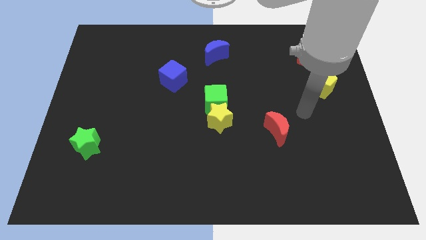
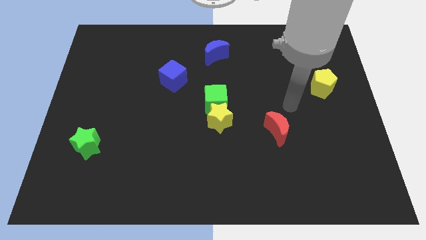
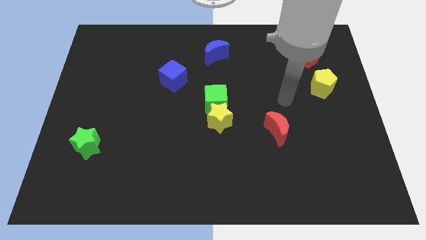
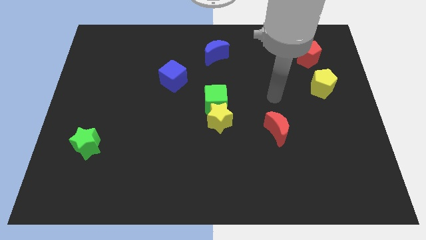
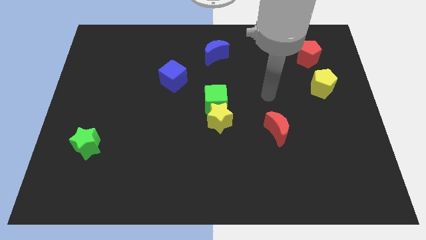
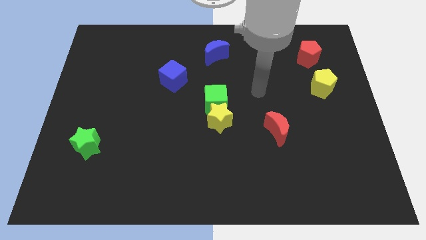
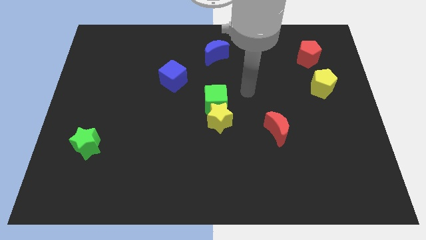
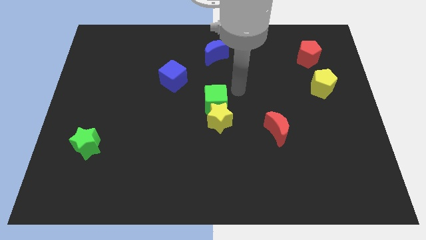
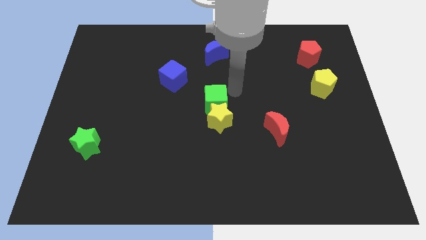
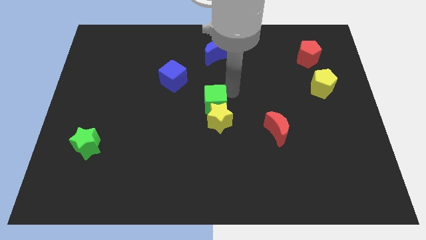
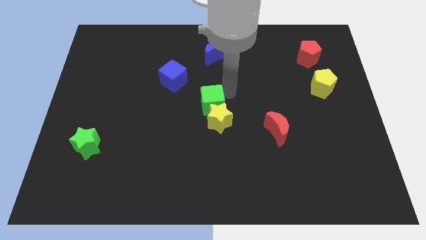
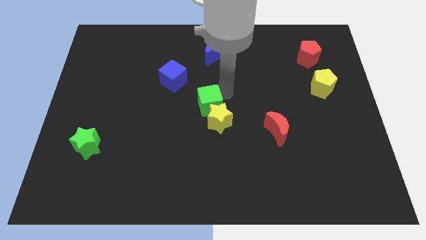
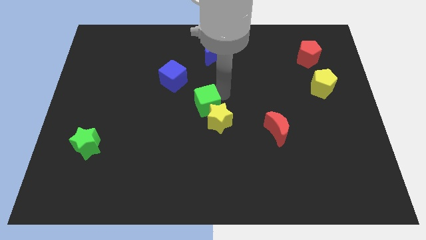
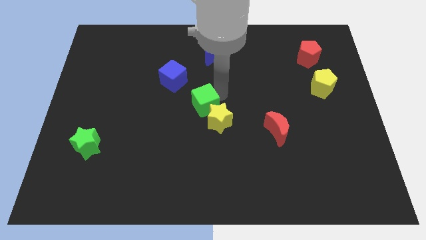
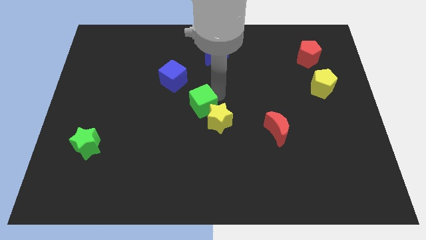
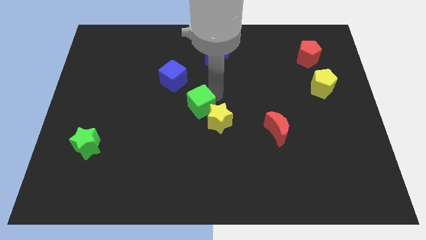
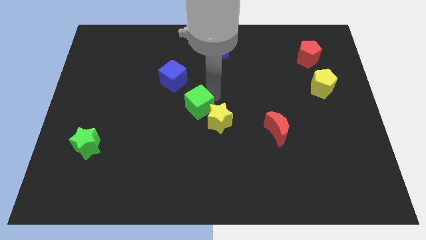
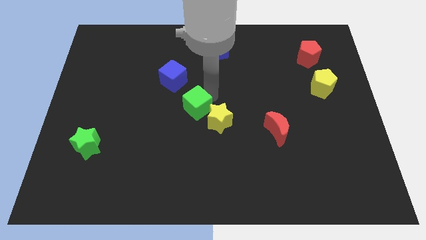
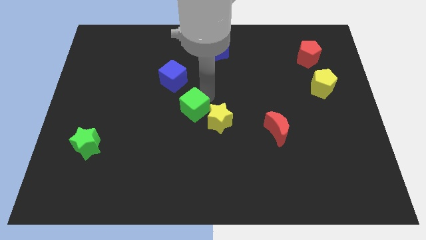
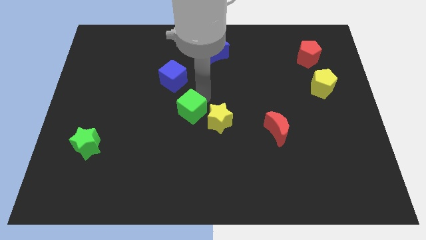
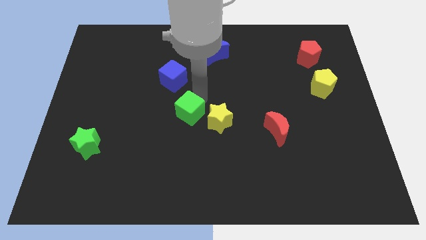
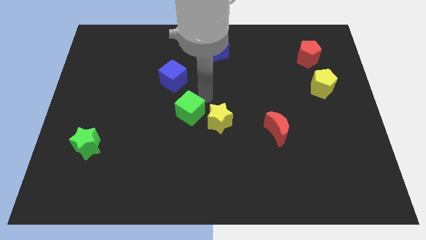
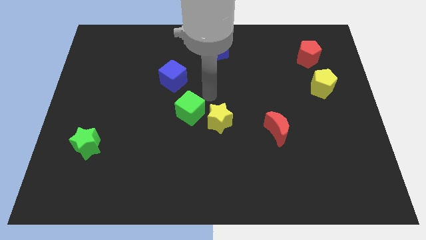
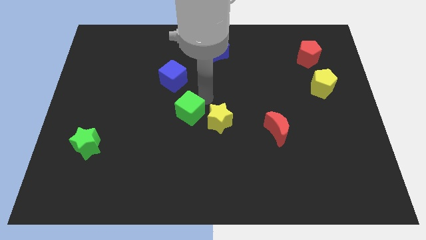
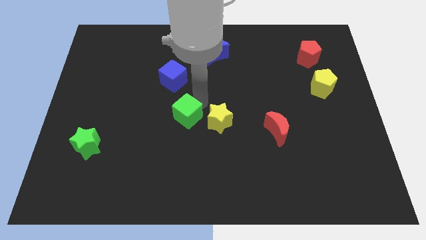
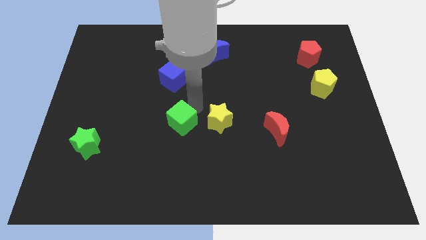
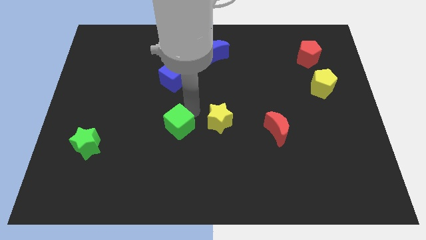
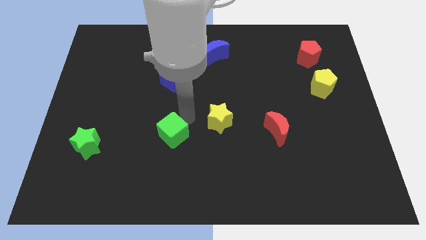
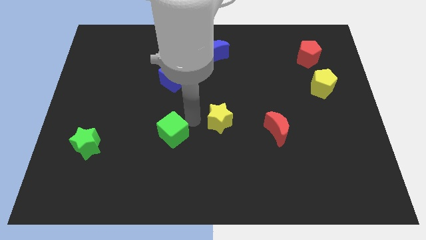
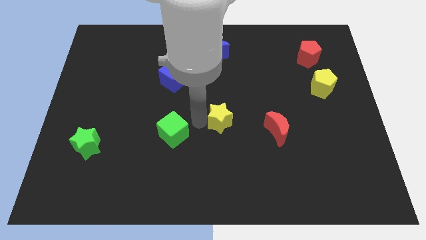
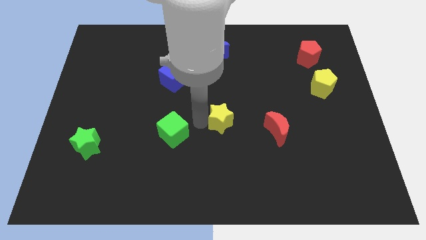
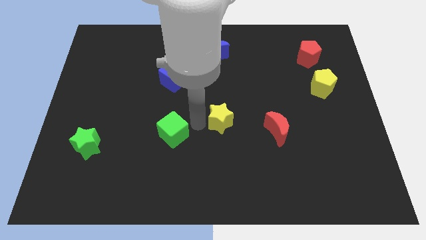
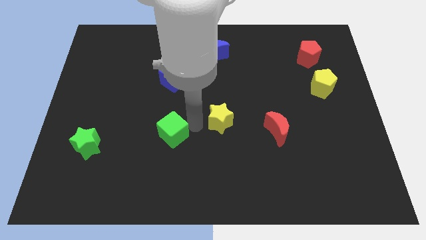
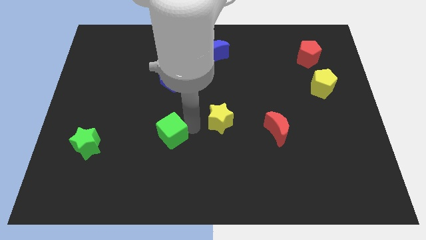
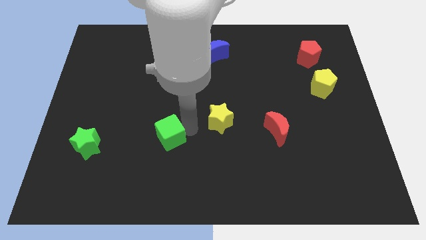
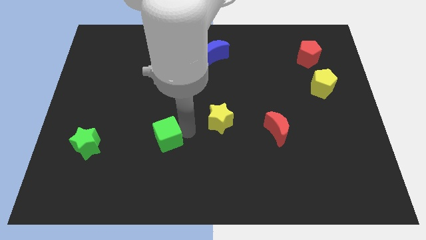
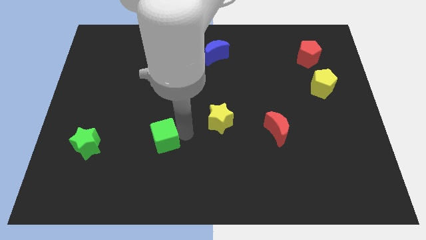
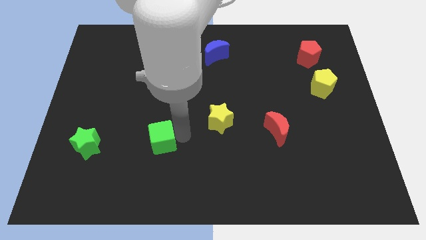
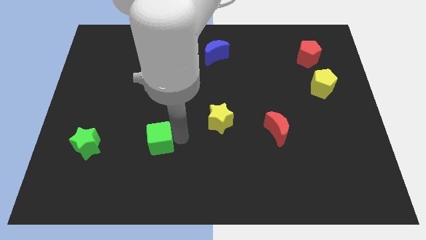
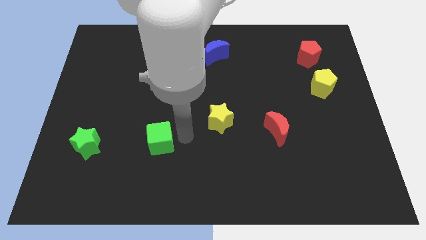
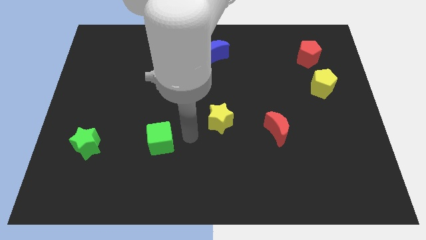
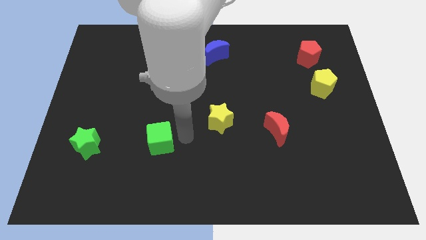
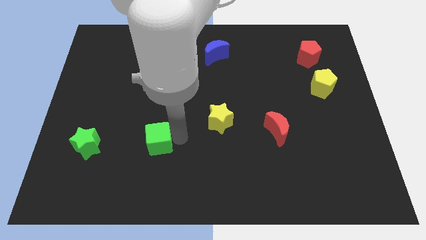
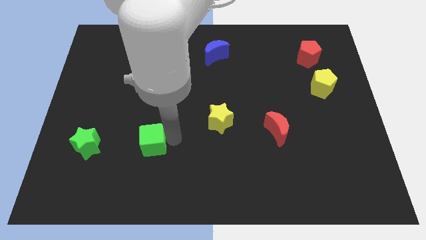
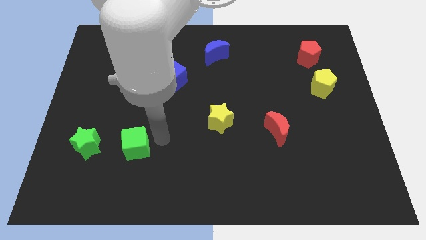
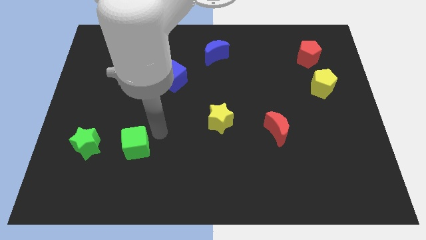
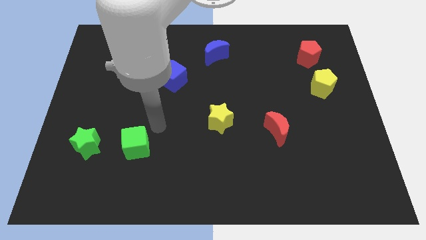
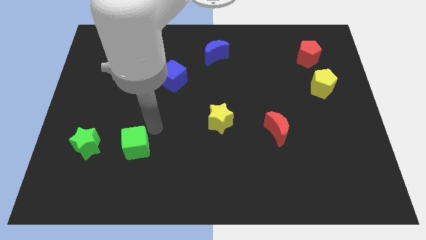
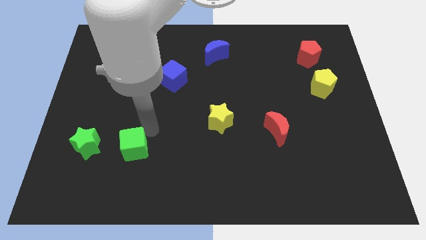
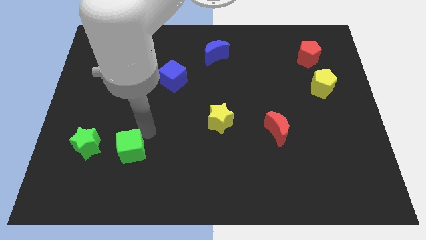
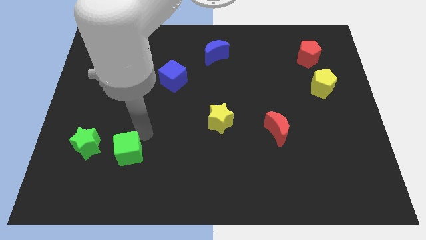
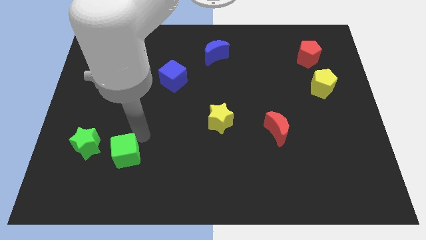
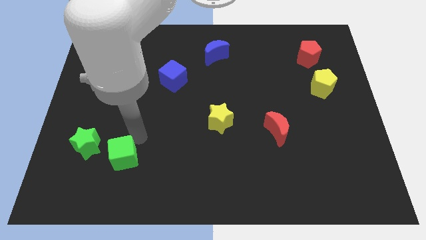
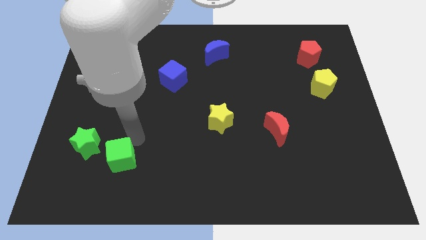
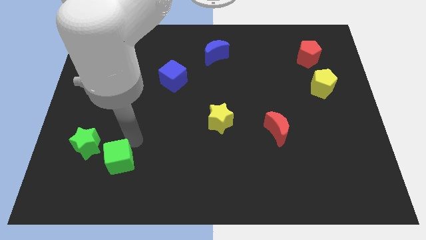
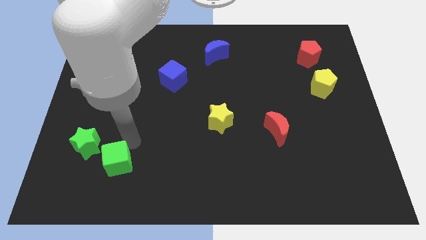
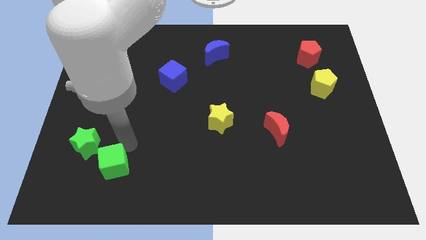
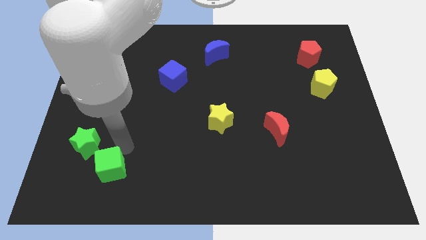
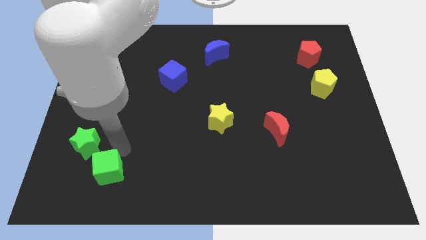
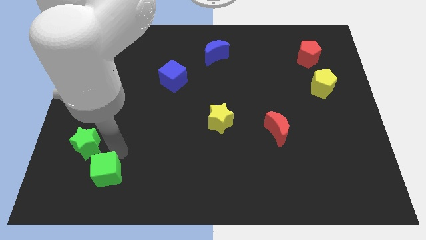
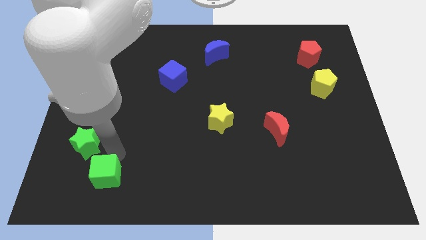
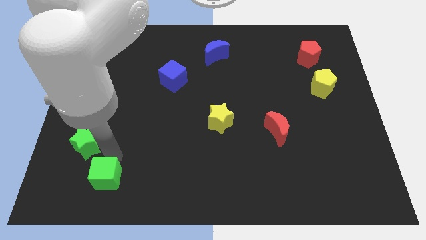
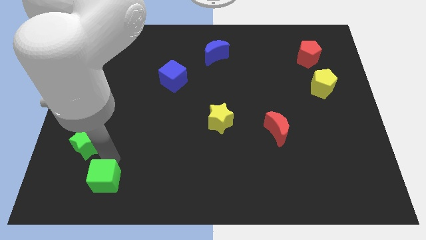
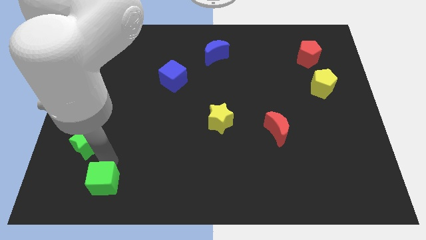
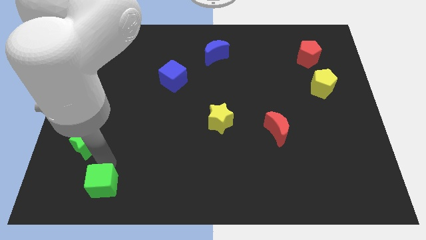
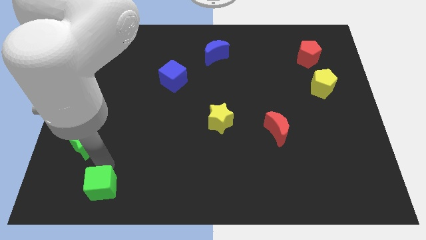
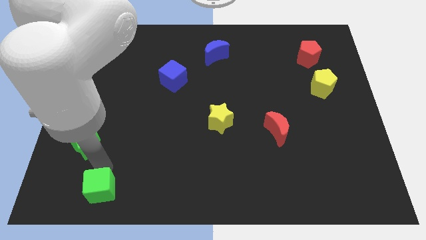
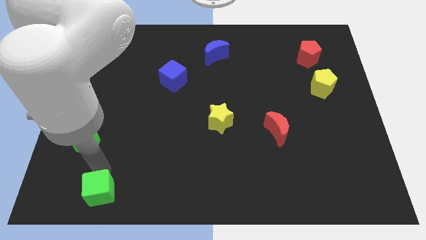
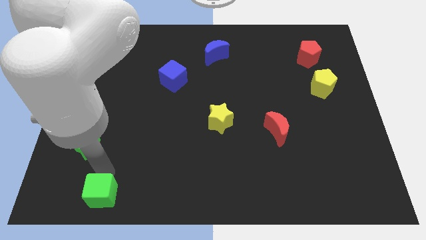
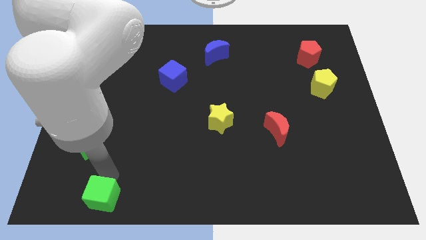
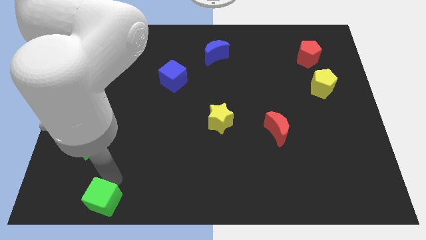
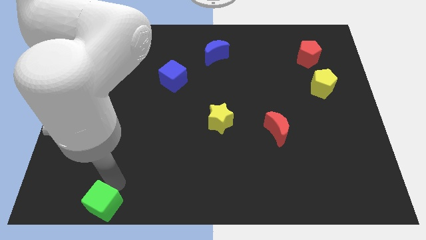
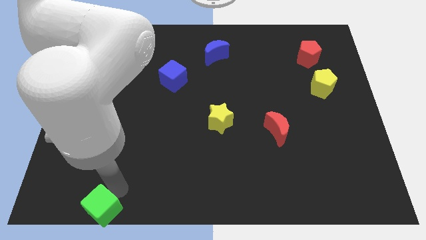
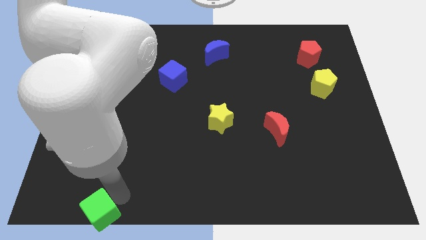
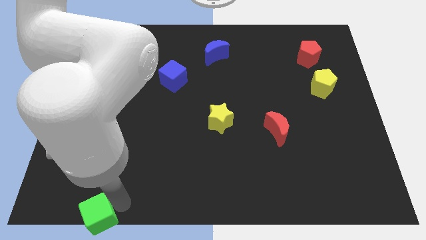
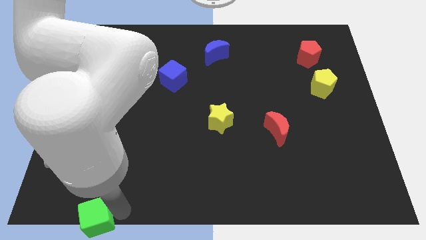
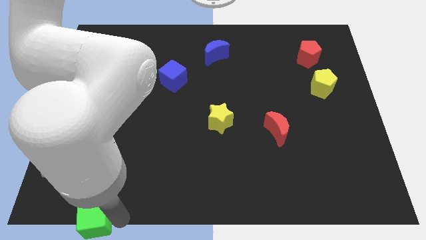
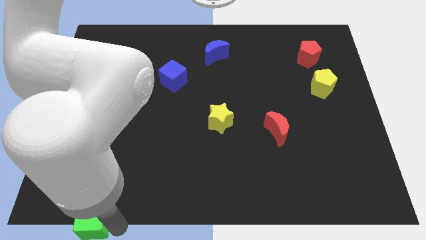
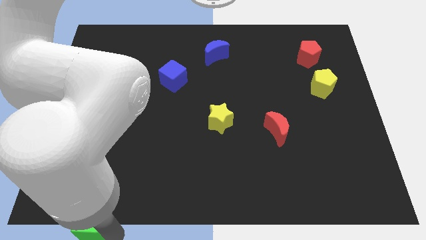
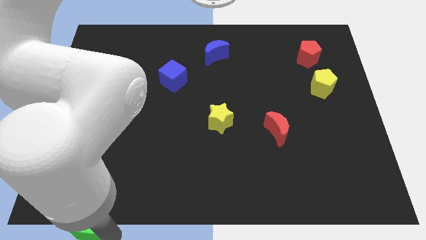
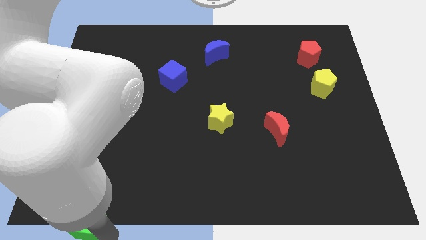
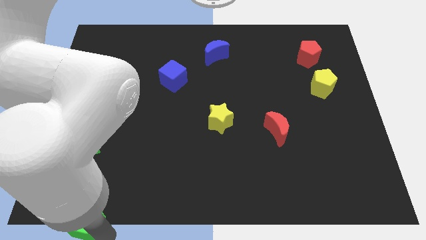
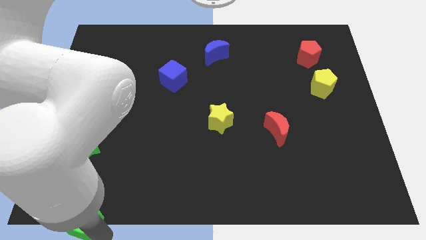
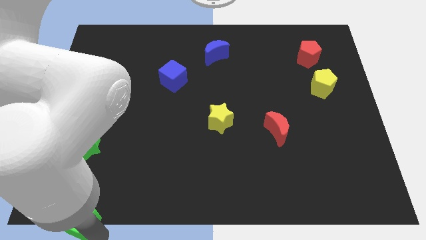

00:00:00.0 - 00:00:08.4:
push the green cube to the bottom left of the board
